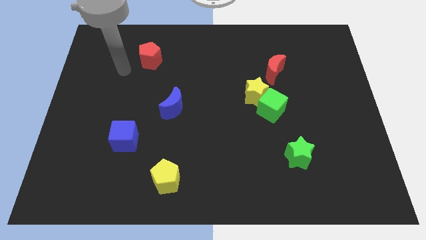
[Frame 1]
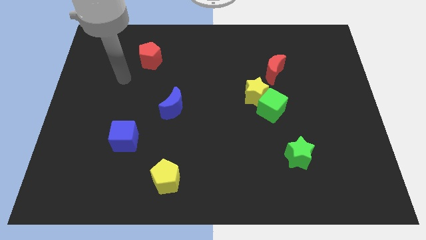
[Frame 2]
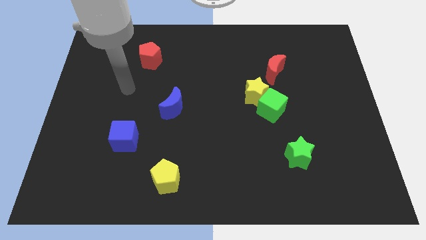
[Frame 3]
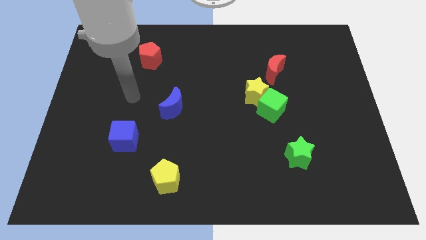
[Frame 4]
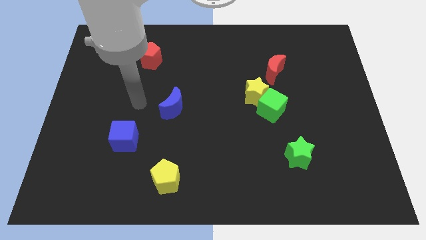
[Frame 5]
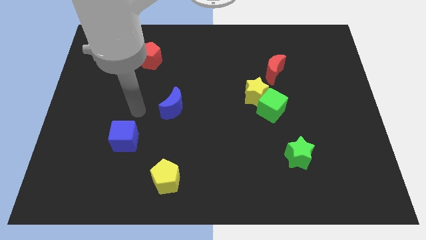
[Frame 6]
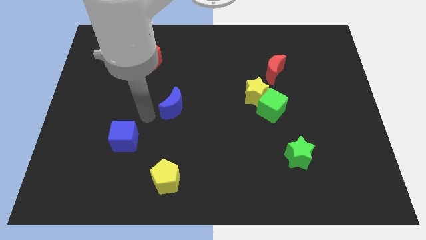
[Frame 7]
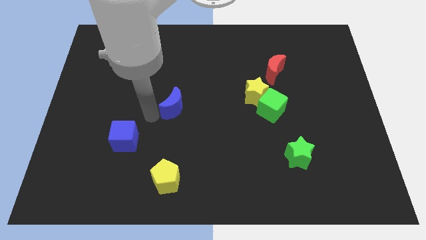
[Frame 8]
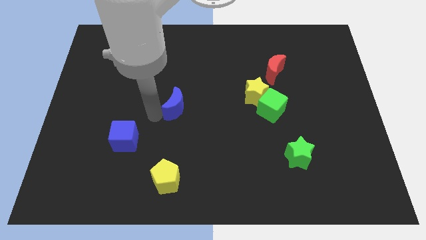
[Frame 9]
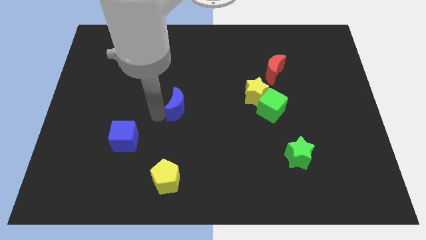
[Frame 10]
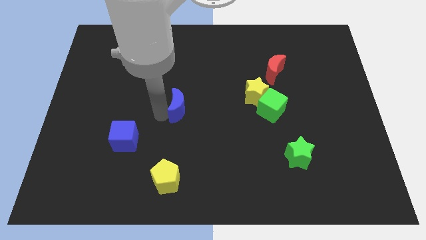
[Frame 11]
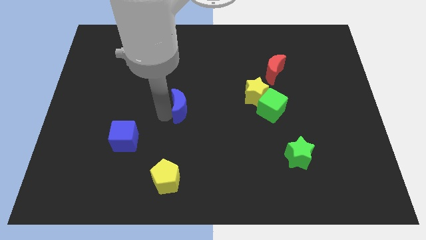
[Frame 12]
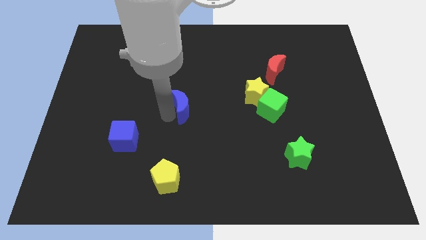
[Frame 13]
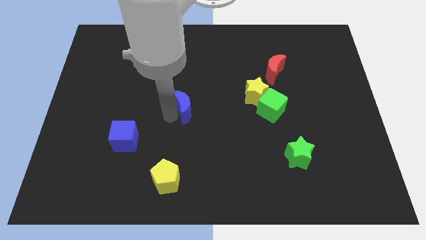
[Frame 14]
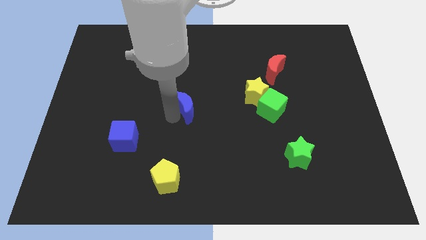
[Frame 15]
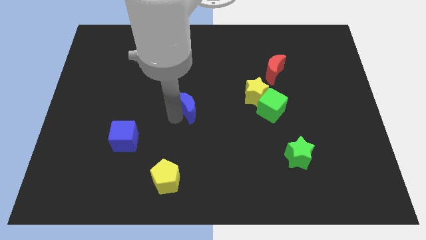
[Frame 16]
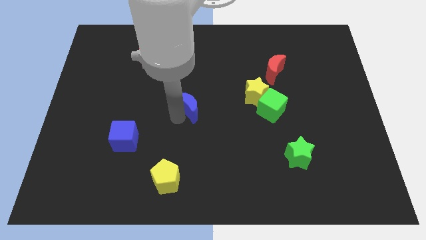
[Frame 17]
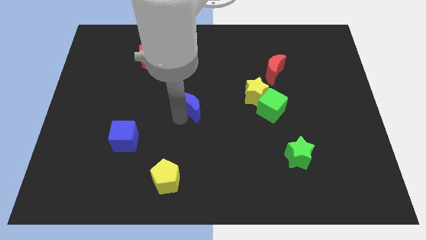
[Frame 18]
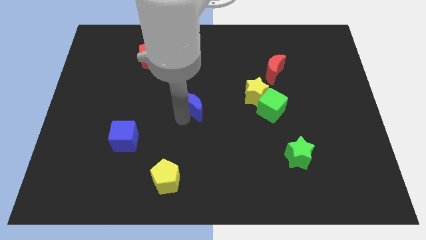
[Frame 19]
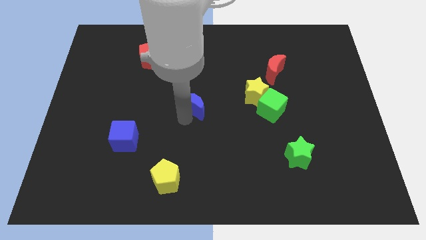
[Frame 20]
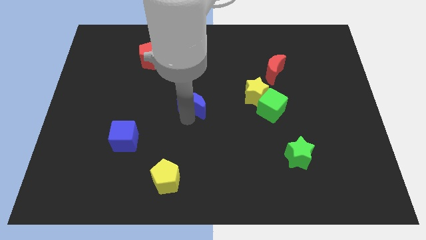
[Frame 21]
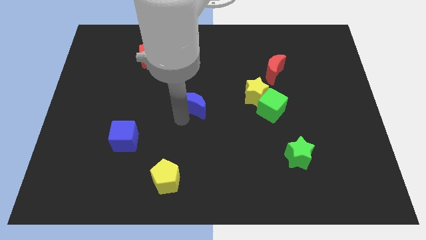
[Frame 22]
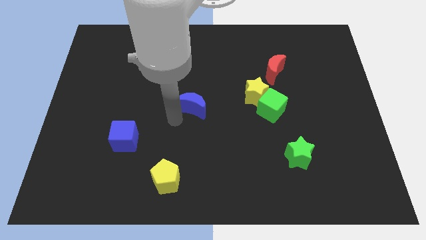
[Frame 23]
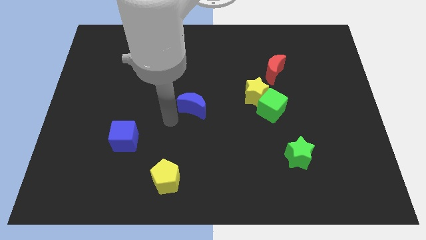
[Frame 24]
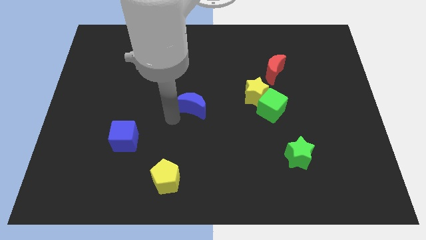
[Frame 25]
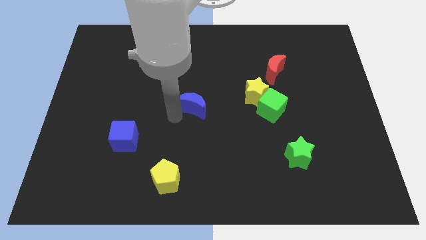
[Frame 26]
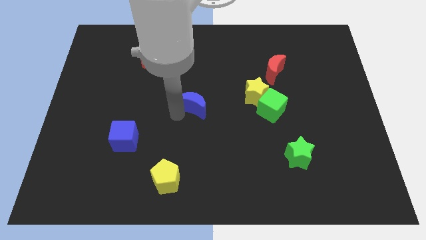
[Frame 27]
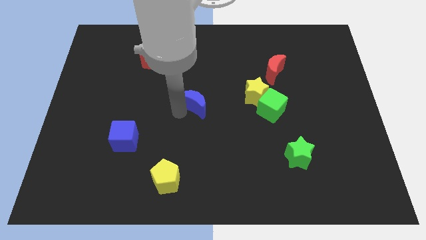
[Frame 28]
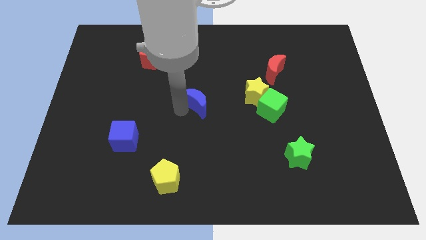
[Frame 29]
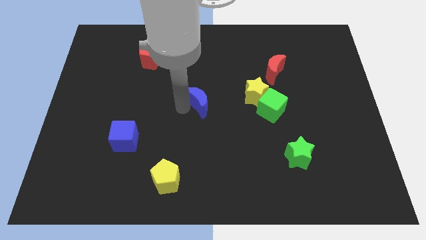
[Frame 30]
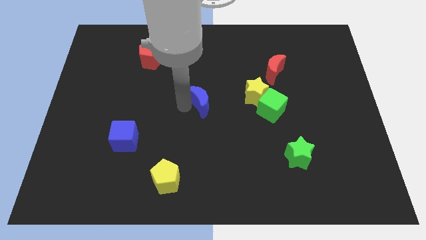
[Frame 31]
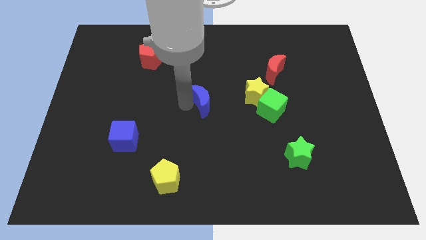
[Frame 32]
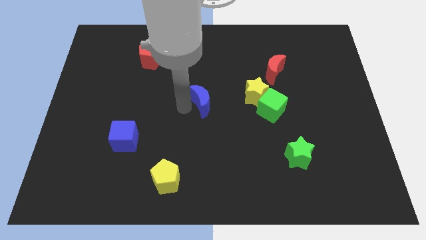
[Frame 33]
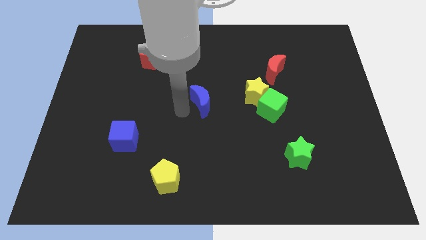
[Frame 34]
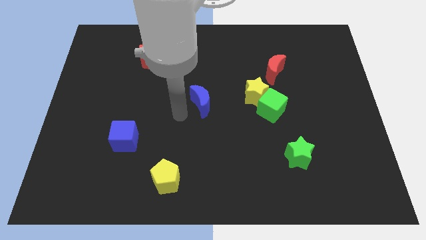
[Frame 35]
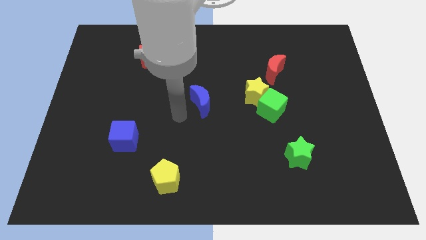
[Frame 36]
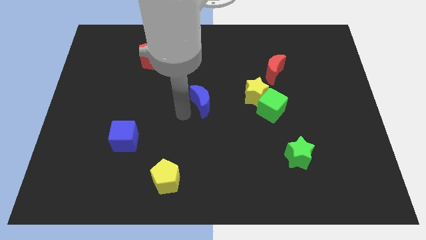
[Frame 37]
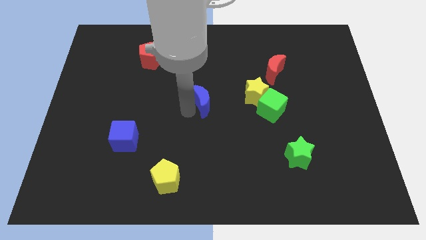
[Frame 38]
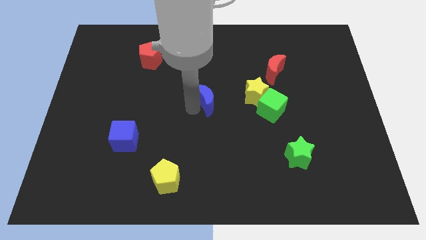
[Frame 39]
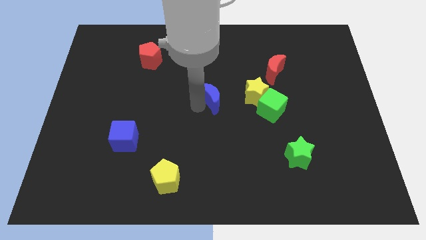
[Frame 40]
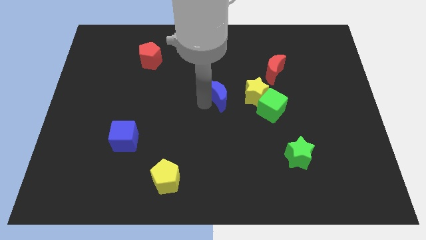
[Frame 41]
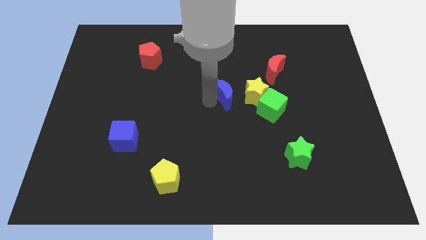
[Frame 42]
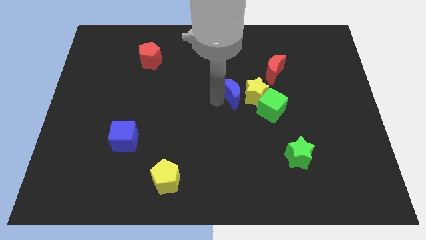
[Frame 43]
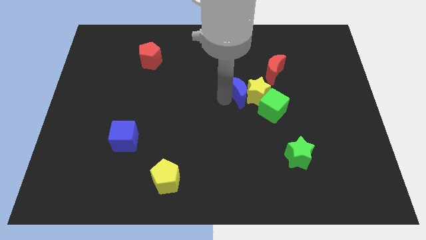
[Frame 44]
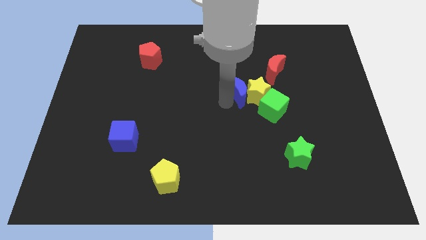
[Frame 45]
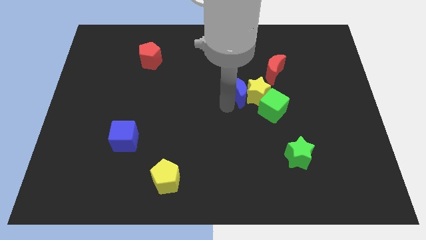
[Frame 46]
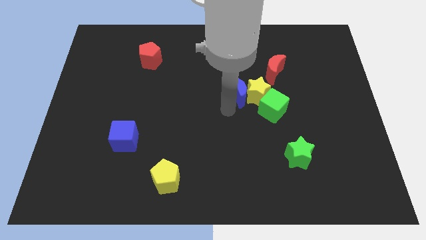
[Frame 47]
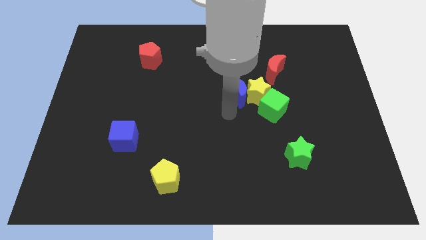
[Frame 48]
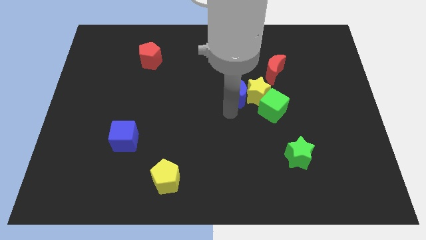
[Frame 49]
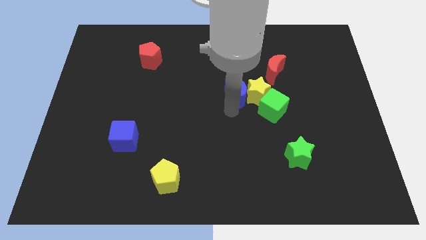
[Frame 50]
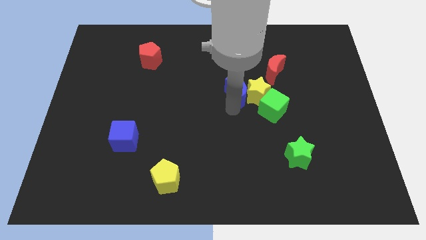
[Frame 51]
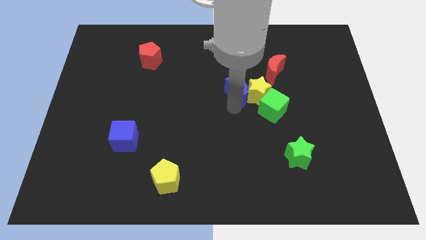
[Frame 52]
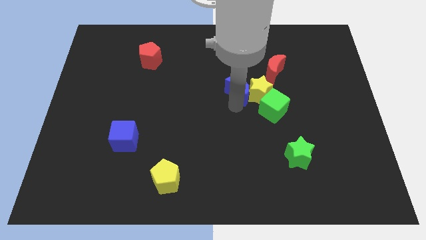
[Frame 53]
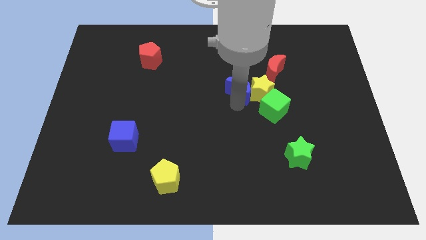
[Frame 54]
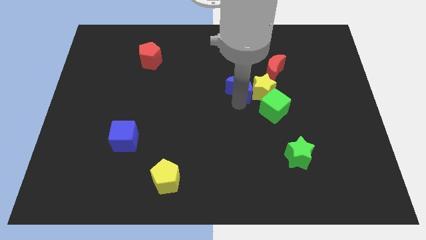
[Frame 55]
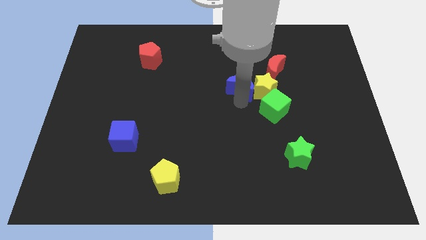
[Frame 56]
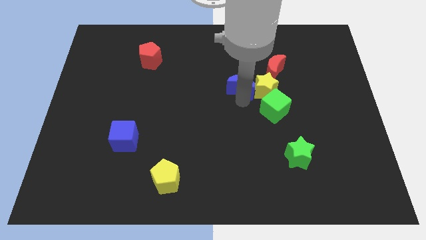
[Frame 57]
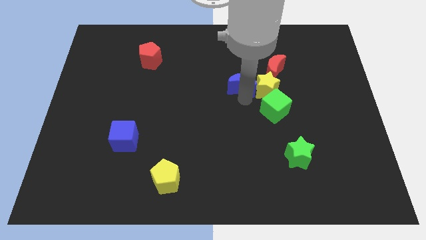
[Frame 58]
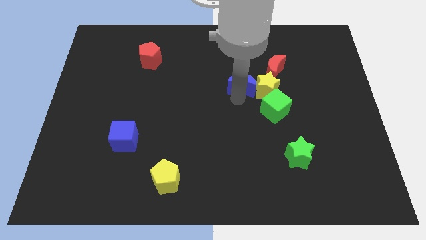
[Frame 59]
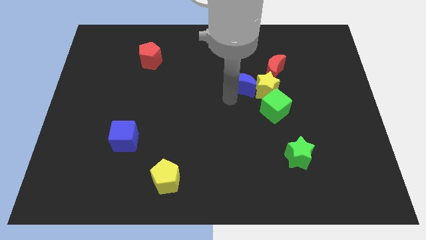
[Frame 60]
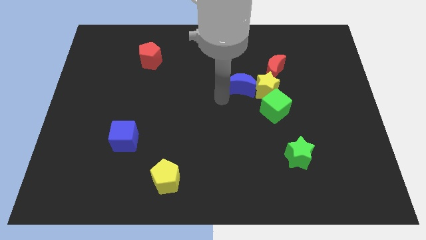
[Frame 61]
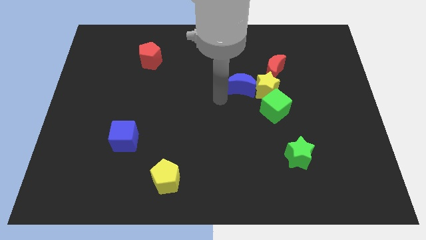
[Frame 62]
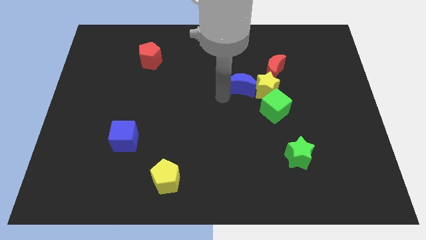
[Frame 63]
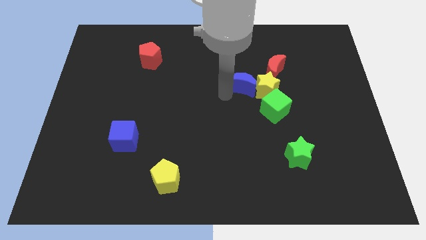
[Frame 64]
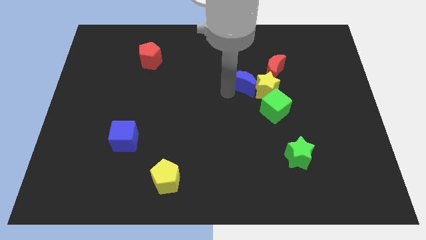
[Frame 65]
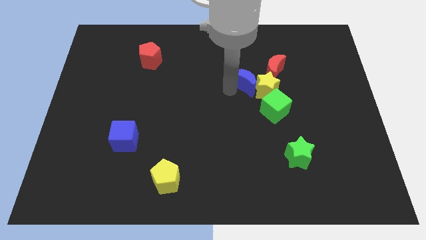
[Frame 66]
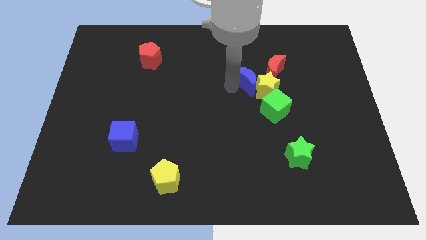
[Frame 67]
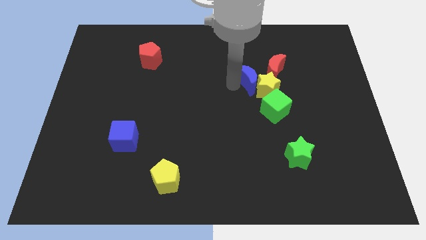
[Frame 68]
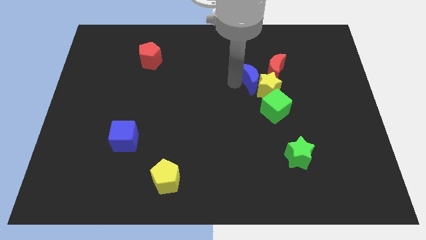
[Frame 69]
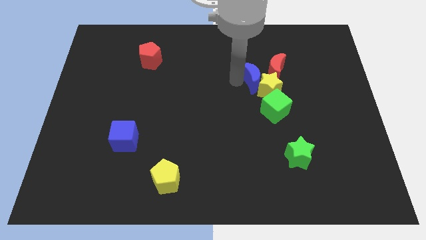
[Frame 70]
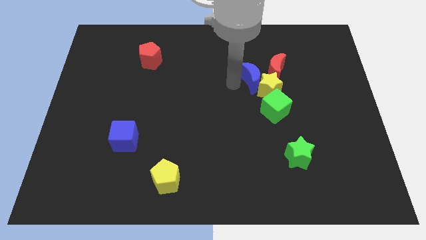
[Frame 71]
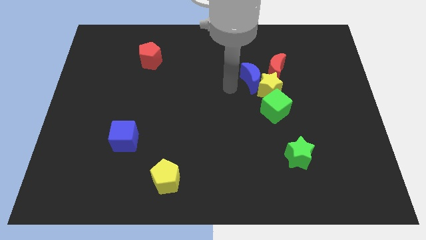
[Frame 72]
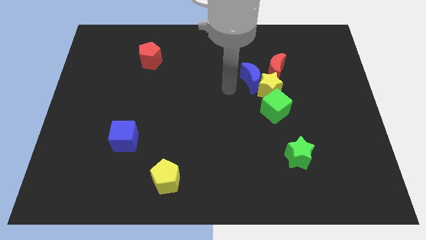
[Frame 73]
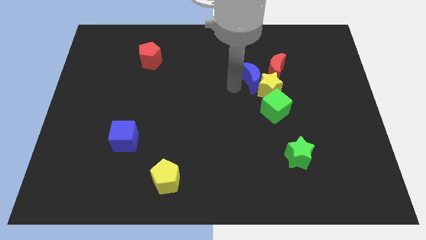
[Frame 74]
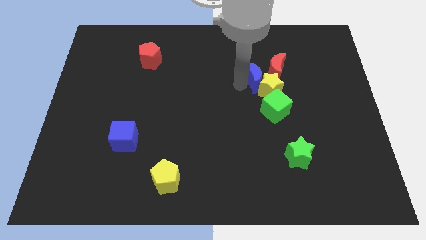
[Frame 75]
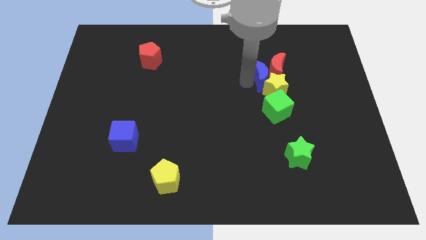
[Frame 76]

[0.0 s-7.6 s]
slide the blue moon to the red moon
